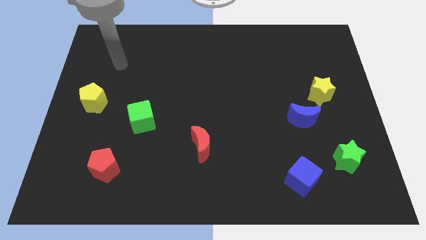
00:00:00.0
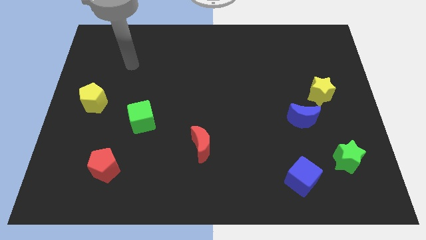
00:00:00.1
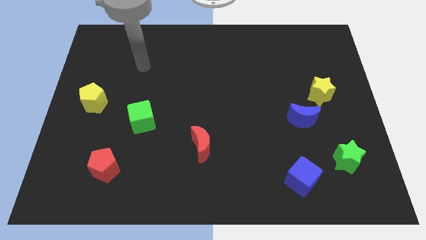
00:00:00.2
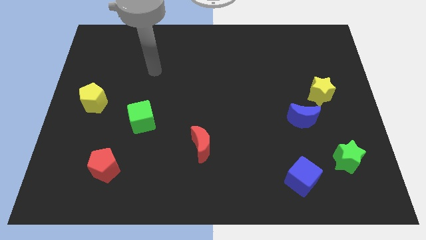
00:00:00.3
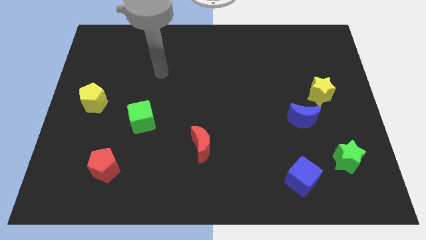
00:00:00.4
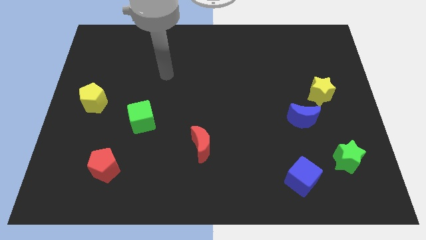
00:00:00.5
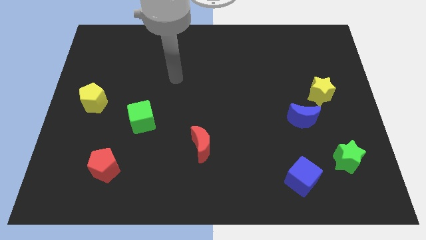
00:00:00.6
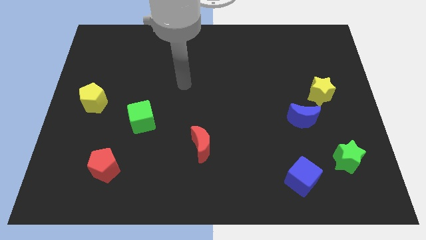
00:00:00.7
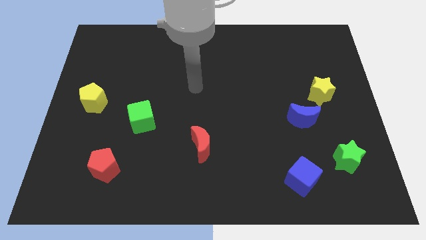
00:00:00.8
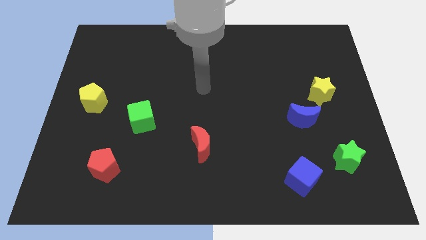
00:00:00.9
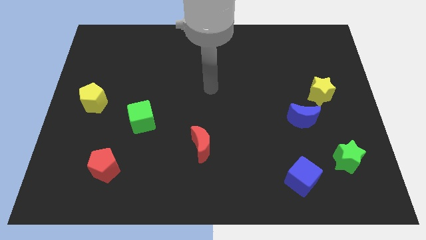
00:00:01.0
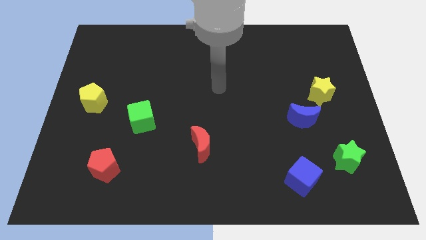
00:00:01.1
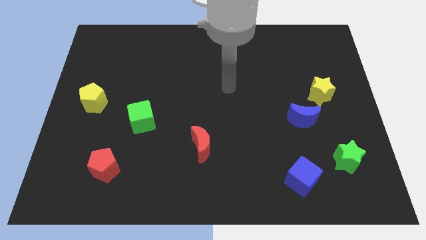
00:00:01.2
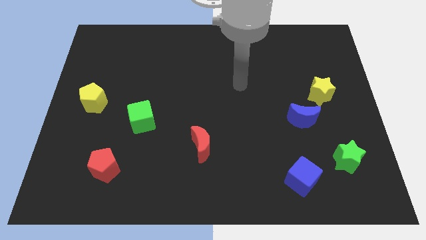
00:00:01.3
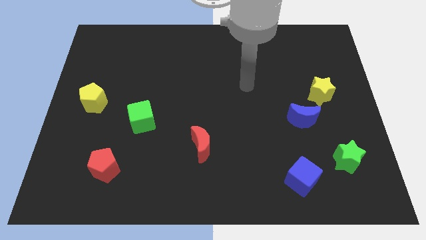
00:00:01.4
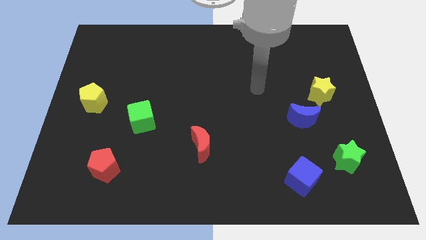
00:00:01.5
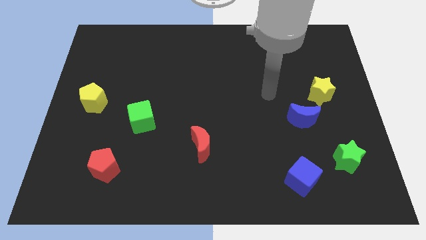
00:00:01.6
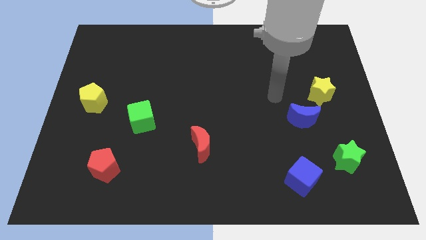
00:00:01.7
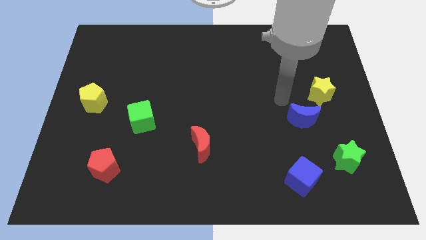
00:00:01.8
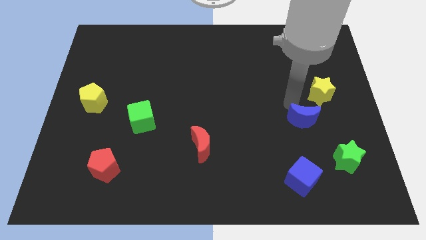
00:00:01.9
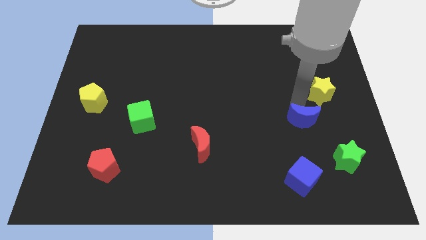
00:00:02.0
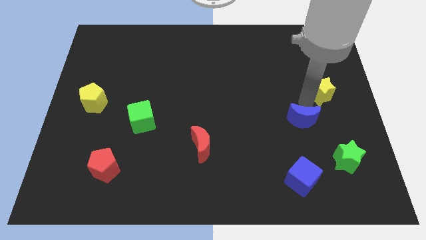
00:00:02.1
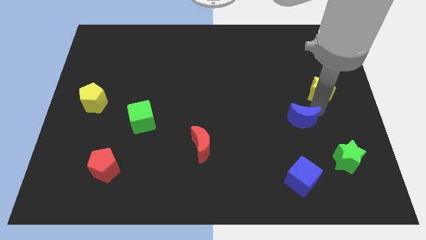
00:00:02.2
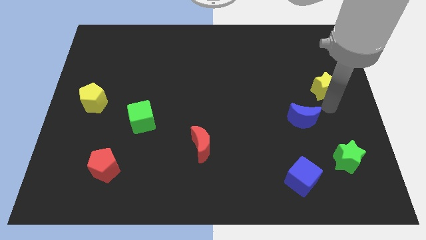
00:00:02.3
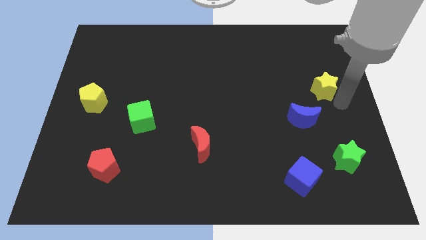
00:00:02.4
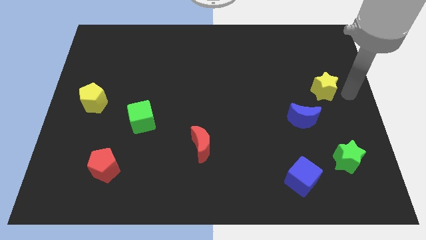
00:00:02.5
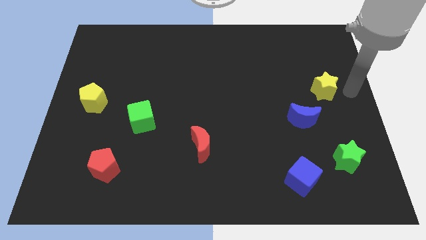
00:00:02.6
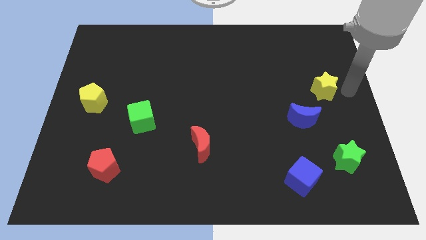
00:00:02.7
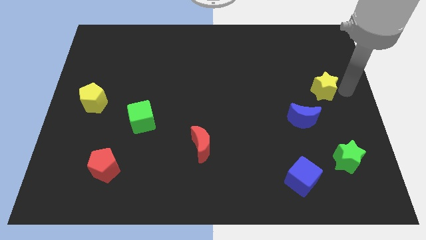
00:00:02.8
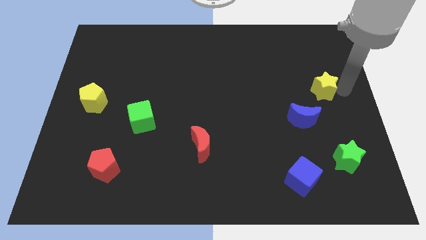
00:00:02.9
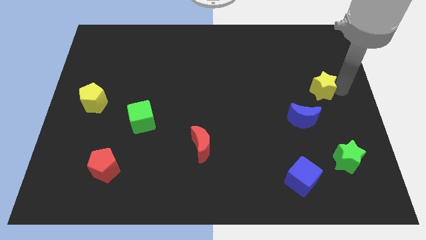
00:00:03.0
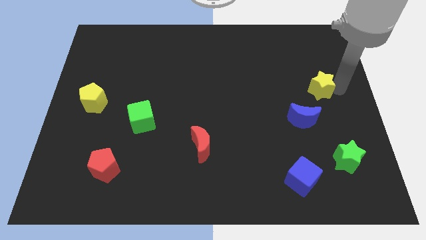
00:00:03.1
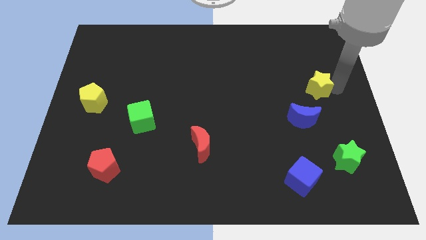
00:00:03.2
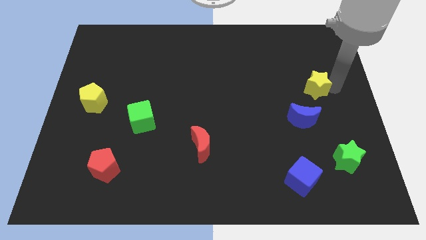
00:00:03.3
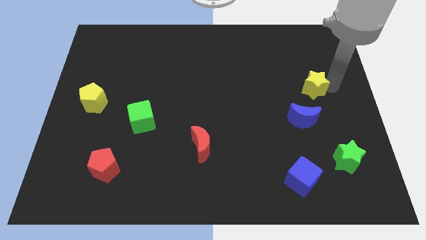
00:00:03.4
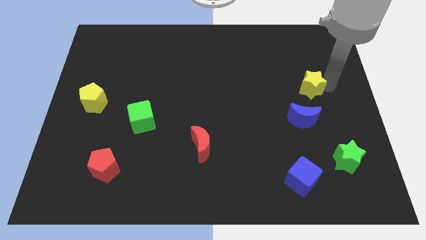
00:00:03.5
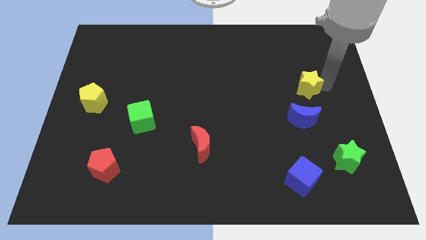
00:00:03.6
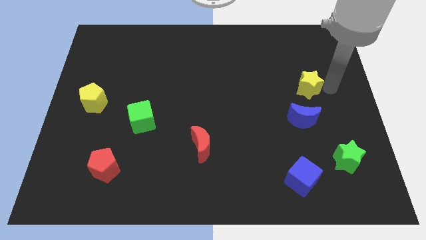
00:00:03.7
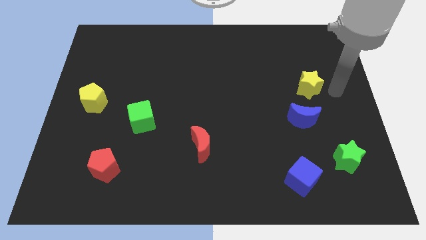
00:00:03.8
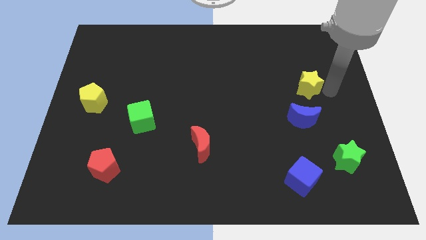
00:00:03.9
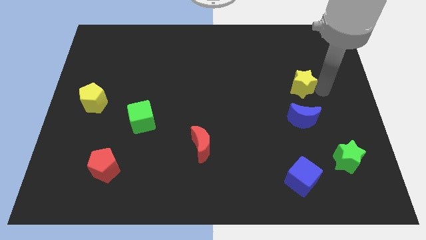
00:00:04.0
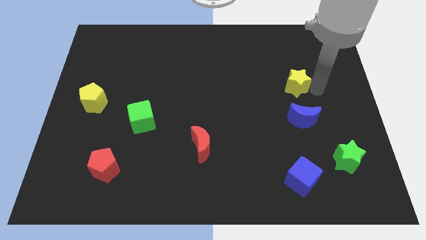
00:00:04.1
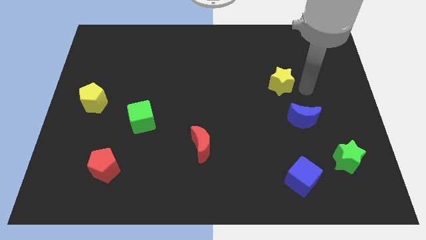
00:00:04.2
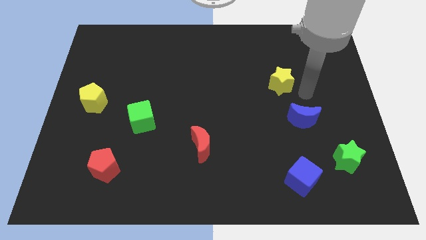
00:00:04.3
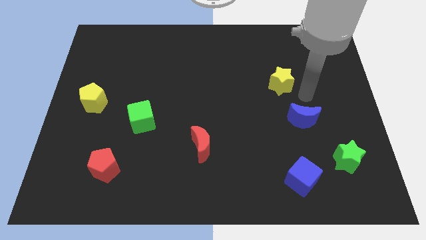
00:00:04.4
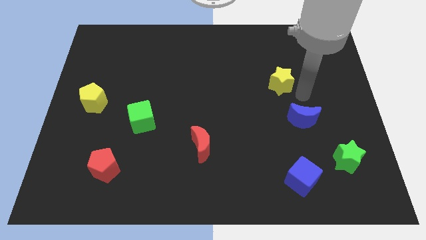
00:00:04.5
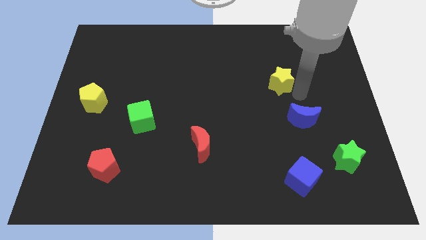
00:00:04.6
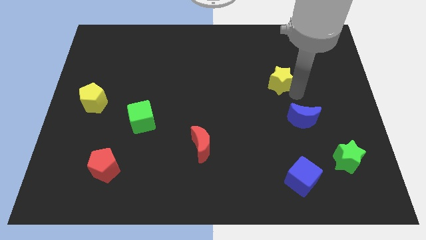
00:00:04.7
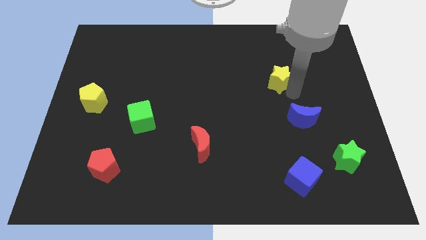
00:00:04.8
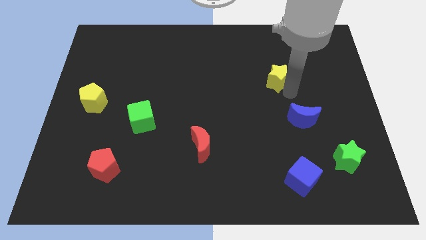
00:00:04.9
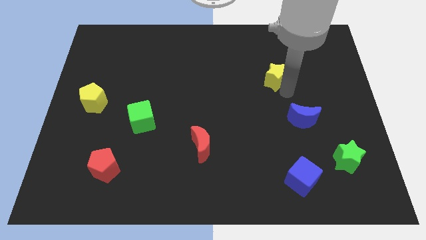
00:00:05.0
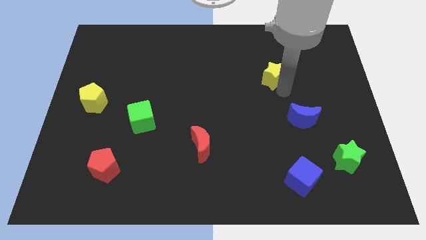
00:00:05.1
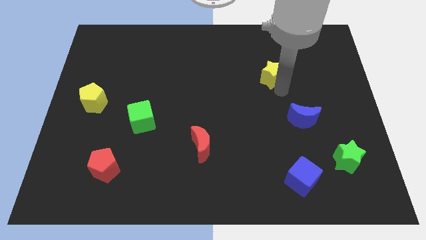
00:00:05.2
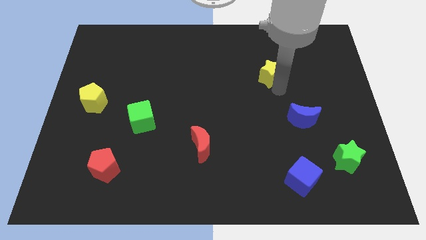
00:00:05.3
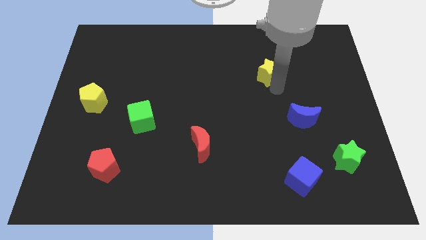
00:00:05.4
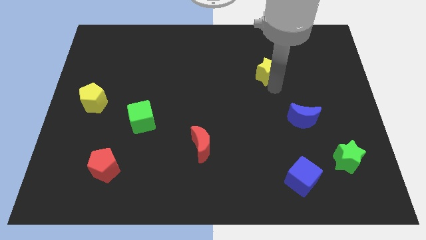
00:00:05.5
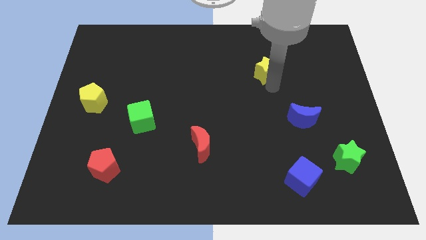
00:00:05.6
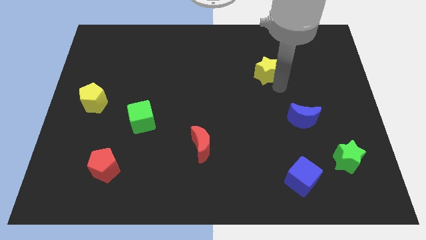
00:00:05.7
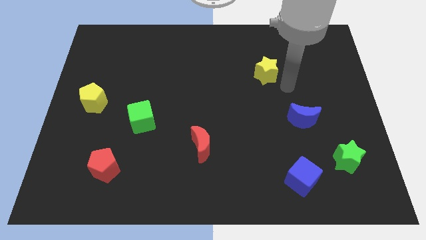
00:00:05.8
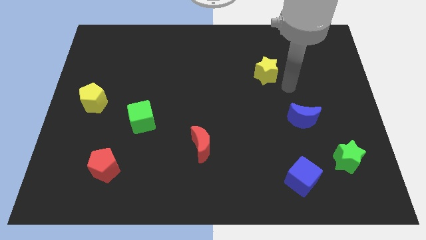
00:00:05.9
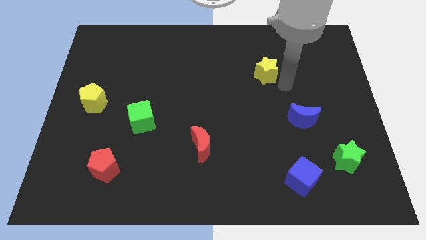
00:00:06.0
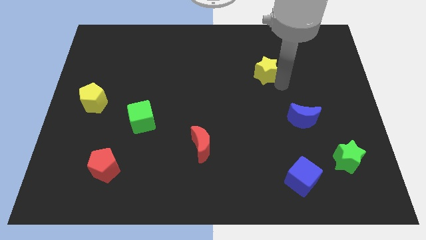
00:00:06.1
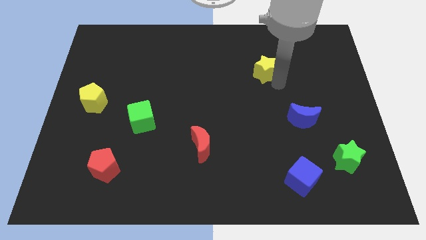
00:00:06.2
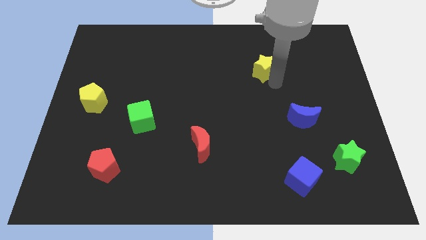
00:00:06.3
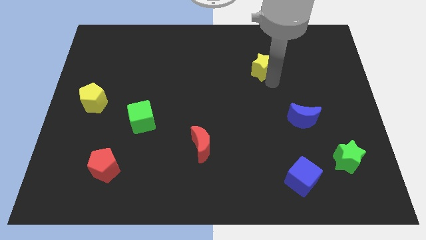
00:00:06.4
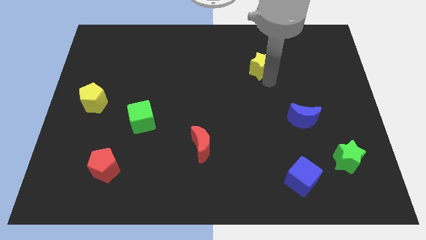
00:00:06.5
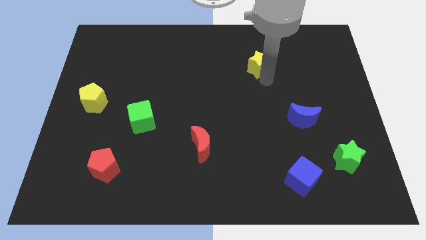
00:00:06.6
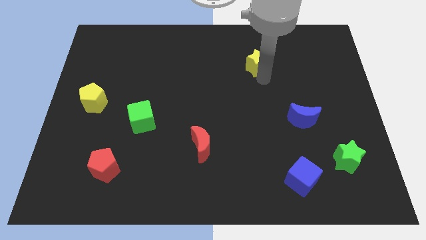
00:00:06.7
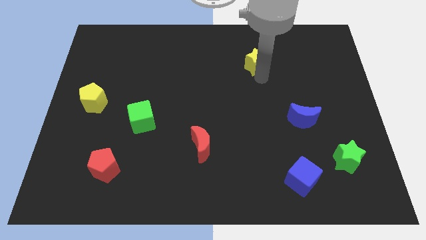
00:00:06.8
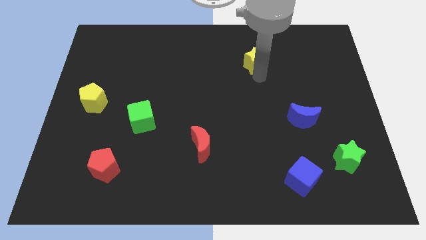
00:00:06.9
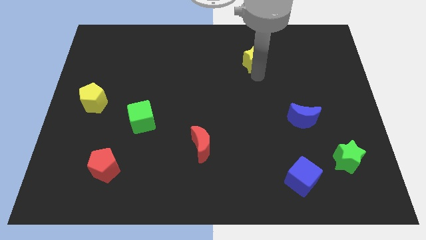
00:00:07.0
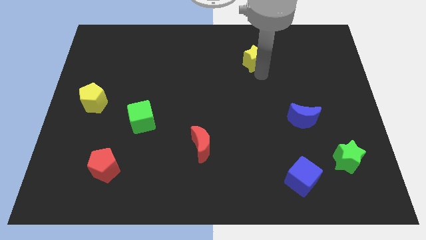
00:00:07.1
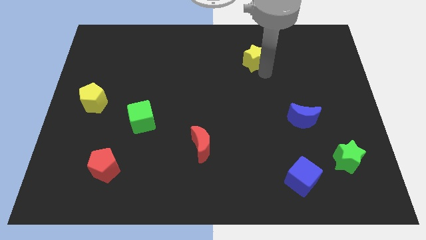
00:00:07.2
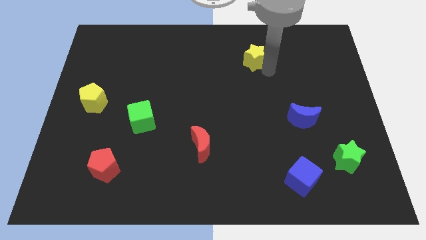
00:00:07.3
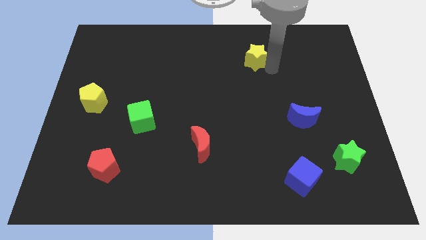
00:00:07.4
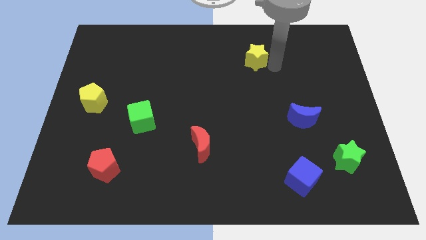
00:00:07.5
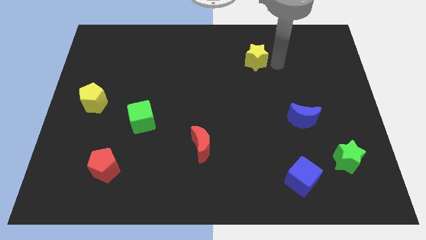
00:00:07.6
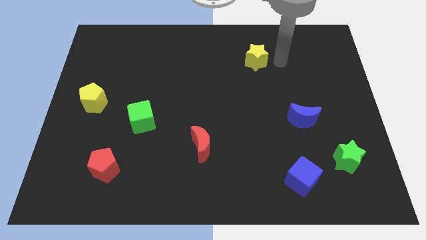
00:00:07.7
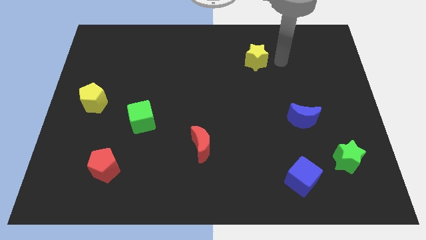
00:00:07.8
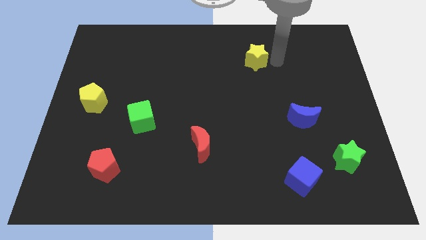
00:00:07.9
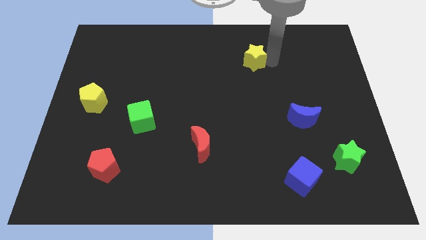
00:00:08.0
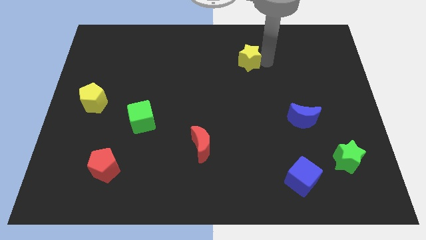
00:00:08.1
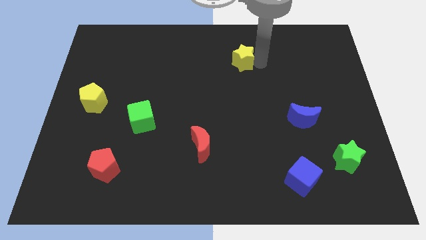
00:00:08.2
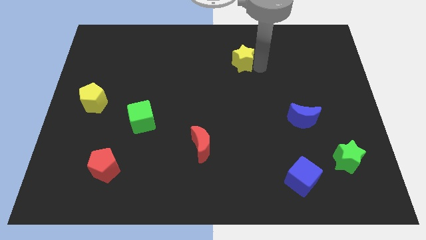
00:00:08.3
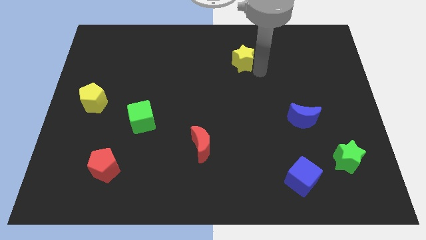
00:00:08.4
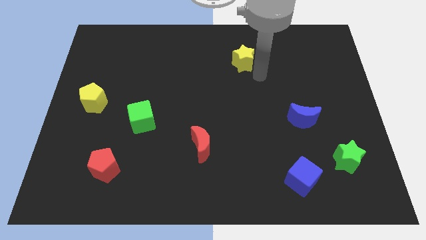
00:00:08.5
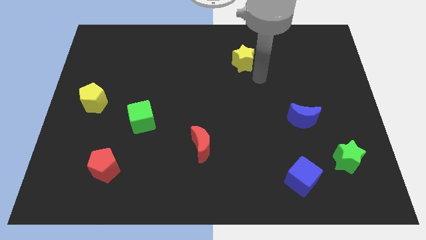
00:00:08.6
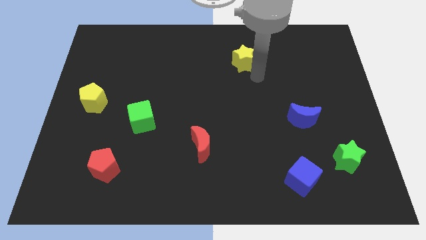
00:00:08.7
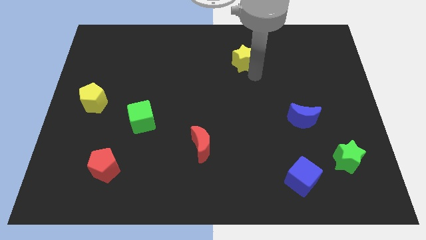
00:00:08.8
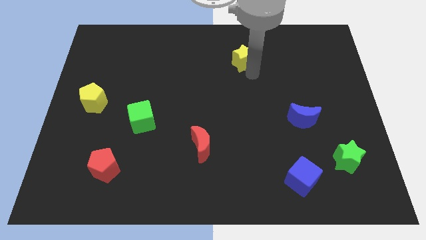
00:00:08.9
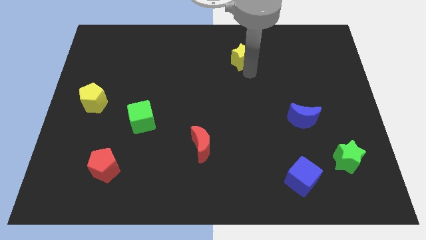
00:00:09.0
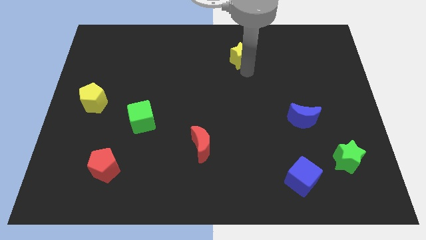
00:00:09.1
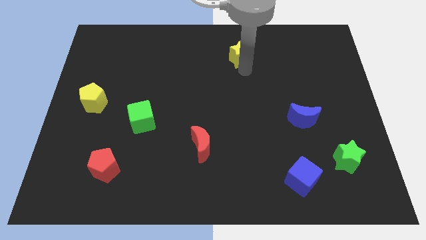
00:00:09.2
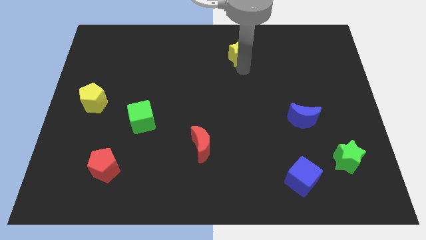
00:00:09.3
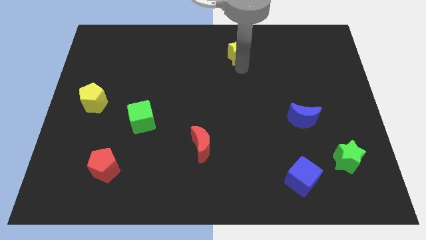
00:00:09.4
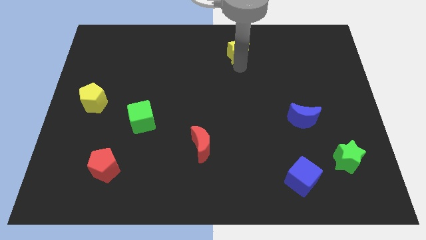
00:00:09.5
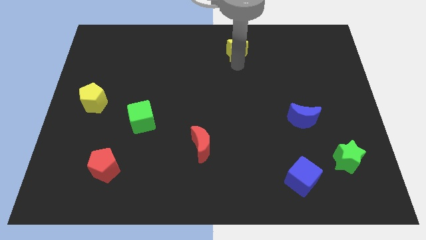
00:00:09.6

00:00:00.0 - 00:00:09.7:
put the yellow star to the top side
